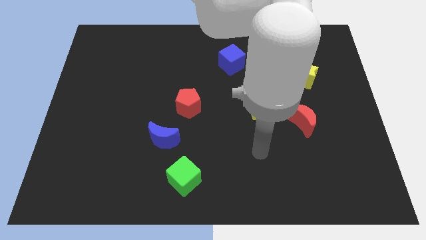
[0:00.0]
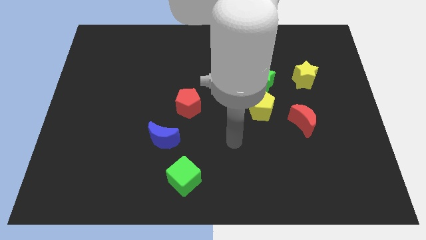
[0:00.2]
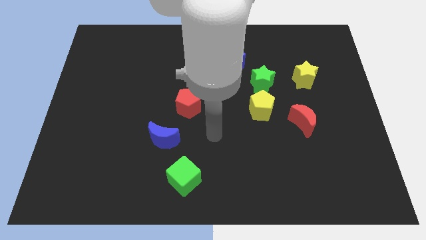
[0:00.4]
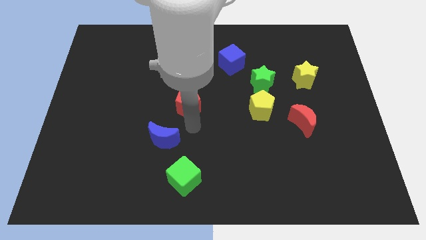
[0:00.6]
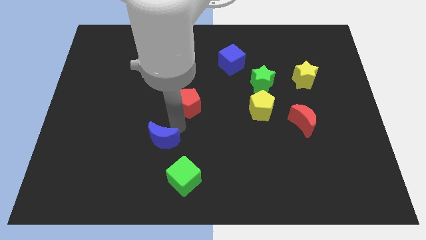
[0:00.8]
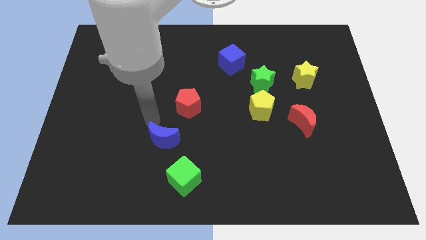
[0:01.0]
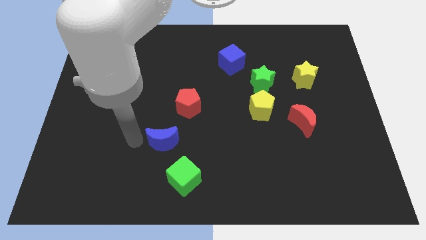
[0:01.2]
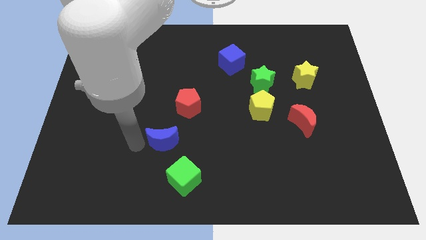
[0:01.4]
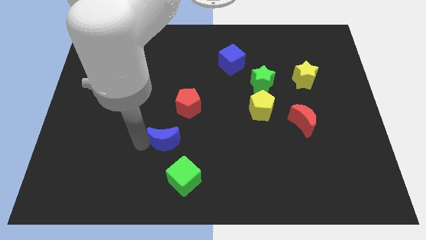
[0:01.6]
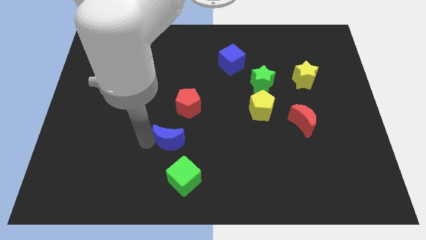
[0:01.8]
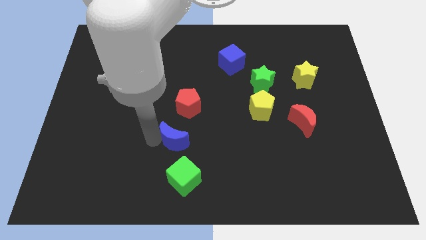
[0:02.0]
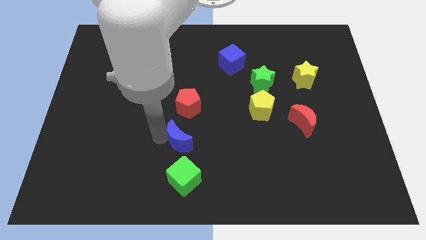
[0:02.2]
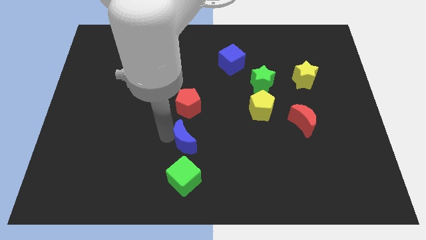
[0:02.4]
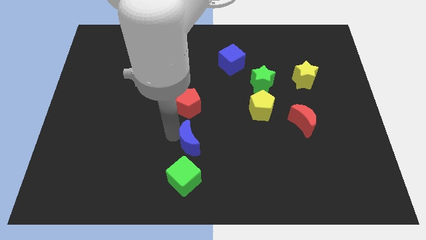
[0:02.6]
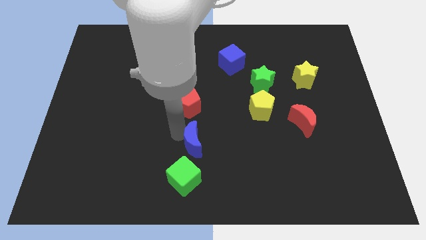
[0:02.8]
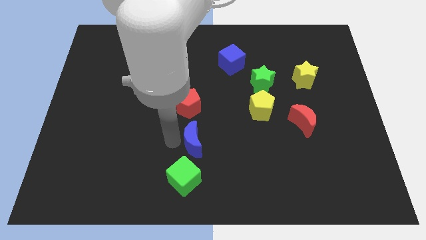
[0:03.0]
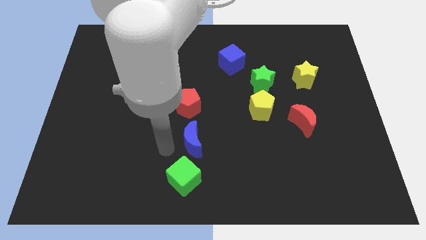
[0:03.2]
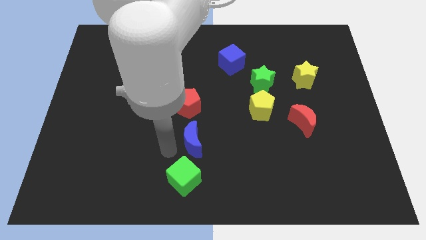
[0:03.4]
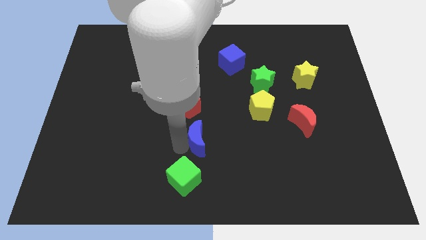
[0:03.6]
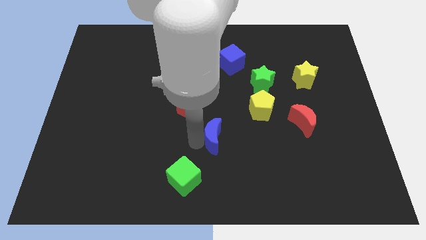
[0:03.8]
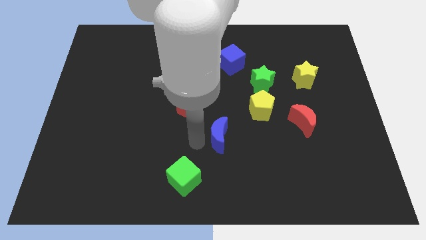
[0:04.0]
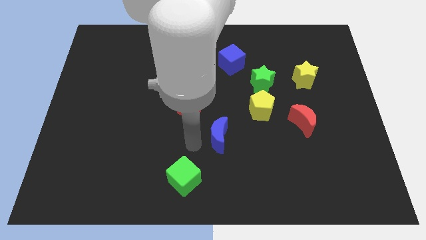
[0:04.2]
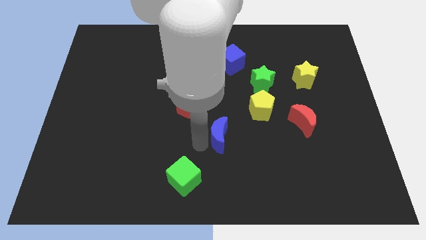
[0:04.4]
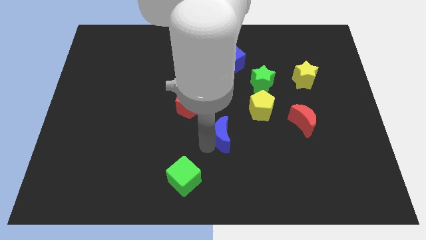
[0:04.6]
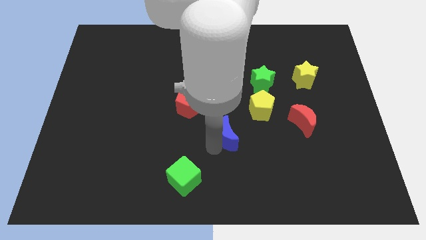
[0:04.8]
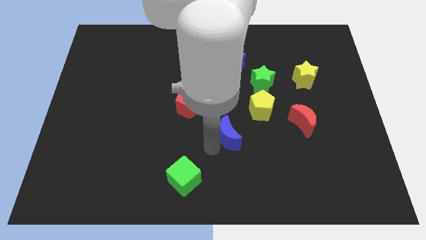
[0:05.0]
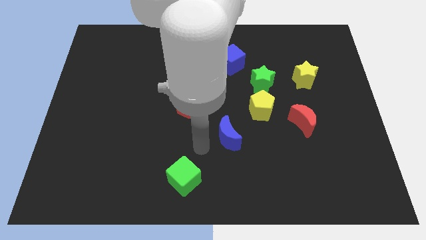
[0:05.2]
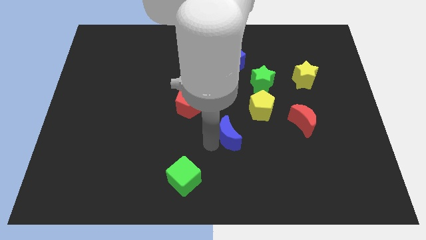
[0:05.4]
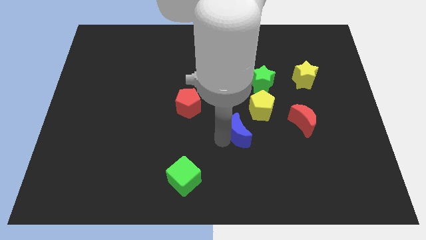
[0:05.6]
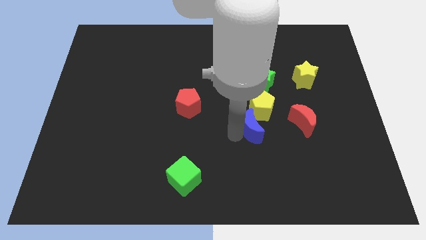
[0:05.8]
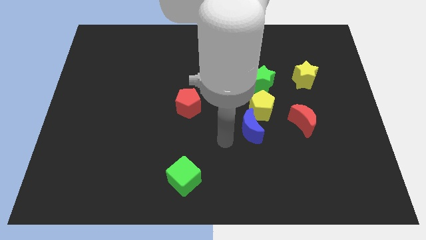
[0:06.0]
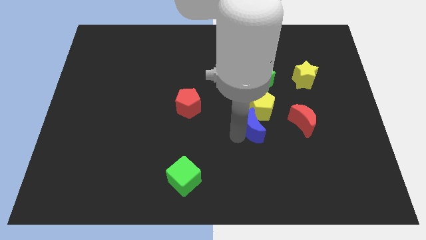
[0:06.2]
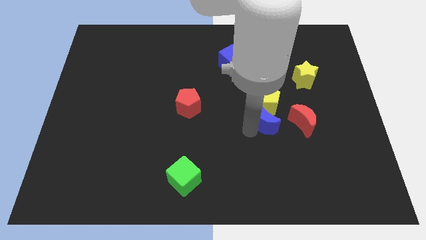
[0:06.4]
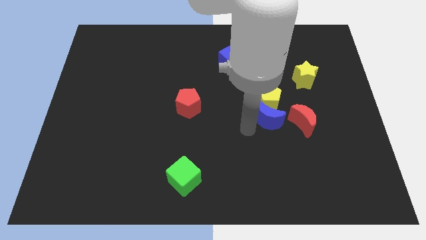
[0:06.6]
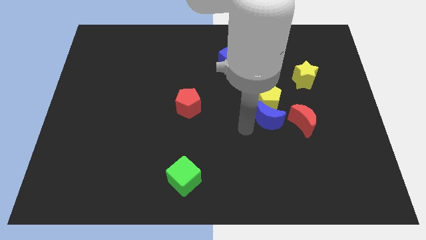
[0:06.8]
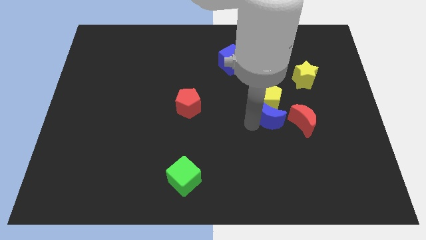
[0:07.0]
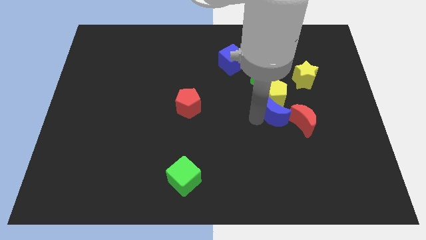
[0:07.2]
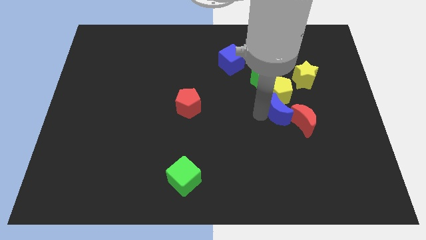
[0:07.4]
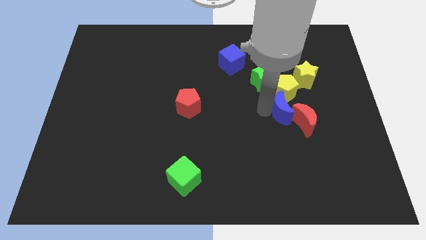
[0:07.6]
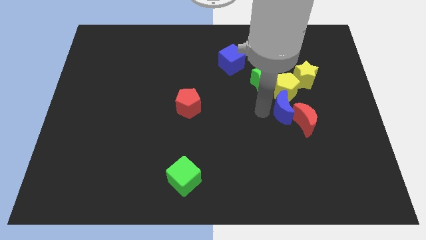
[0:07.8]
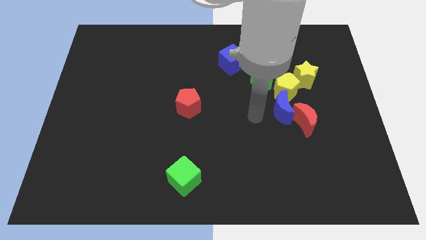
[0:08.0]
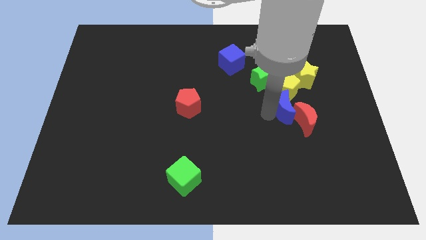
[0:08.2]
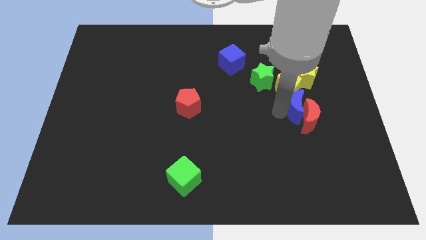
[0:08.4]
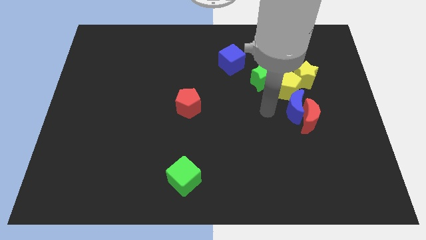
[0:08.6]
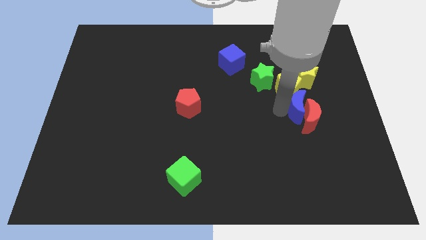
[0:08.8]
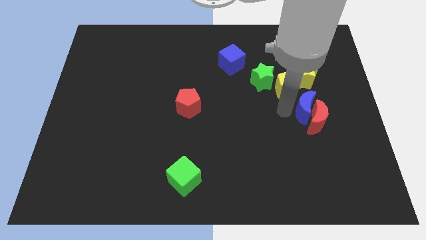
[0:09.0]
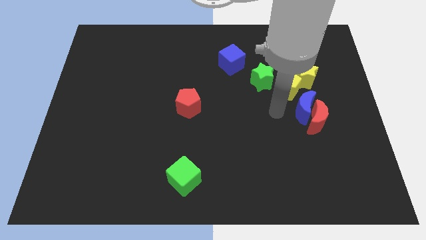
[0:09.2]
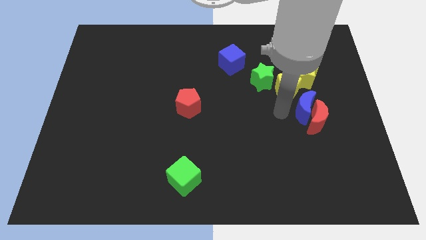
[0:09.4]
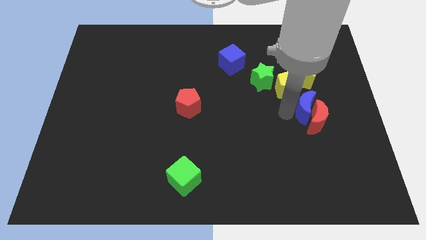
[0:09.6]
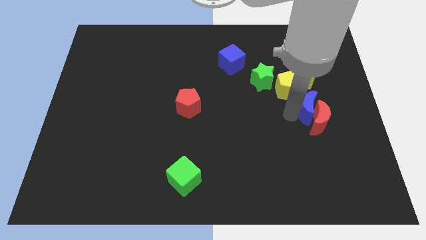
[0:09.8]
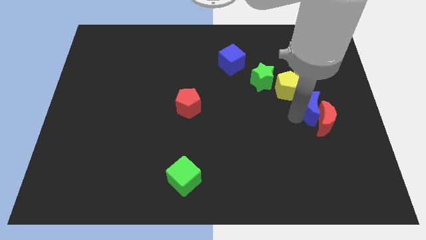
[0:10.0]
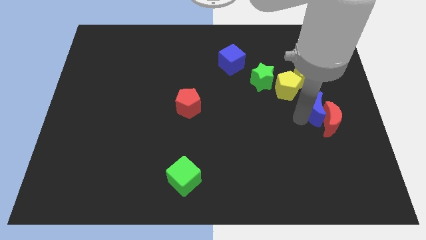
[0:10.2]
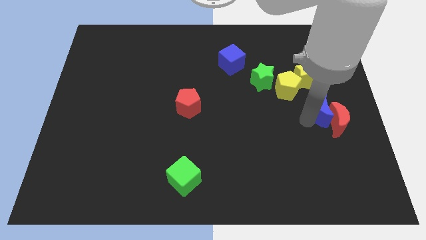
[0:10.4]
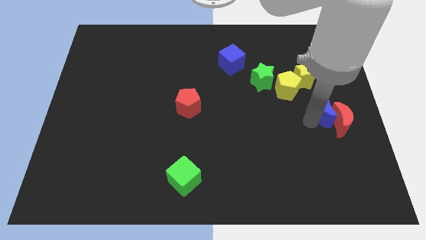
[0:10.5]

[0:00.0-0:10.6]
slide the blue moon to the right side
